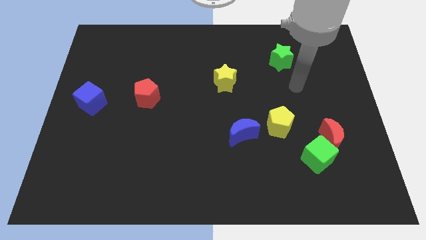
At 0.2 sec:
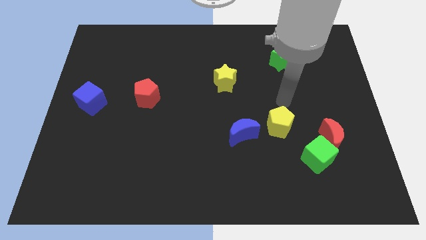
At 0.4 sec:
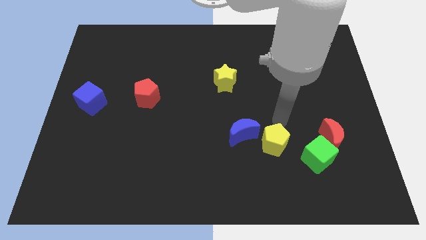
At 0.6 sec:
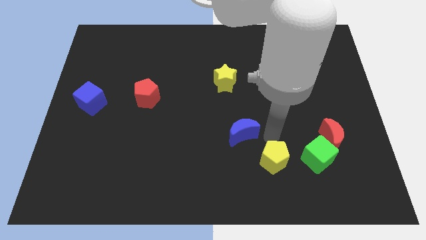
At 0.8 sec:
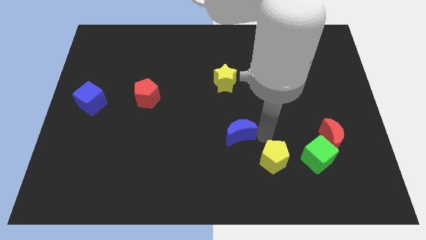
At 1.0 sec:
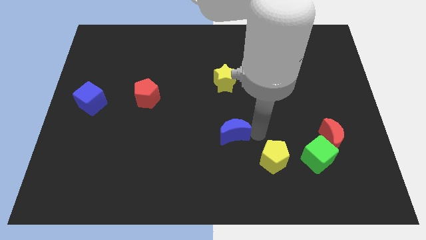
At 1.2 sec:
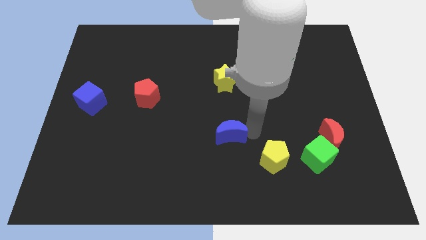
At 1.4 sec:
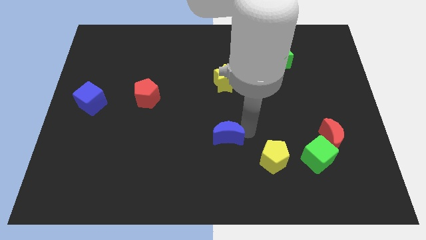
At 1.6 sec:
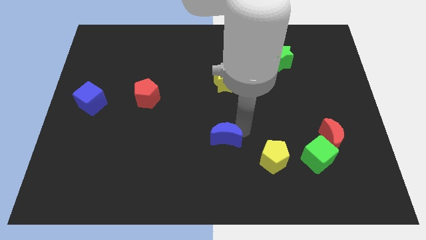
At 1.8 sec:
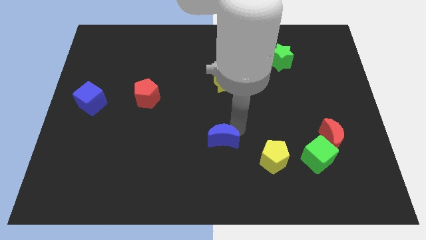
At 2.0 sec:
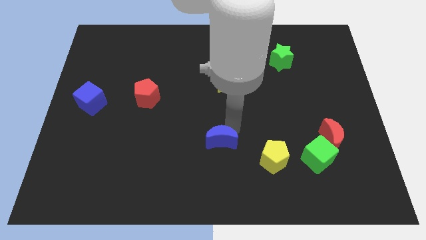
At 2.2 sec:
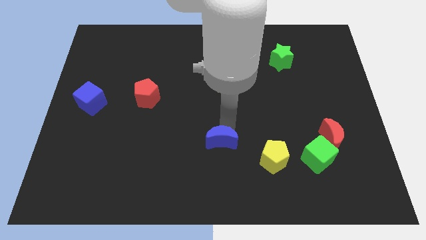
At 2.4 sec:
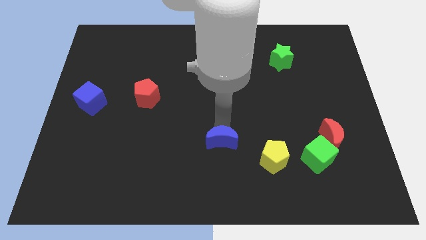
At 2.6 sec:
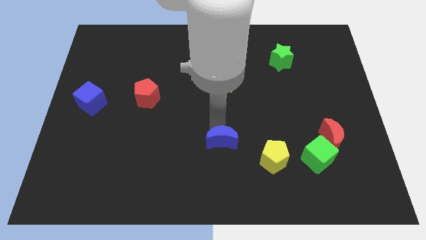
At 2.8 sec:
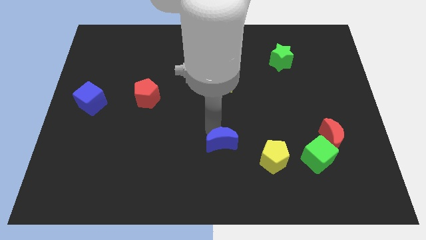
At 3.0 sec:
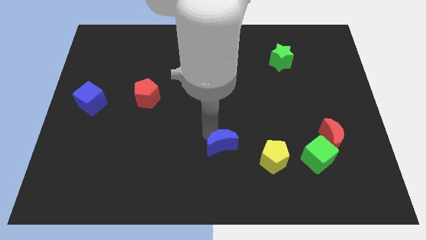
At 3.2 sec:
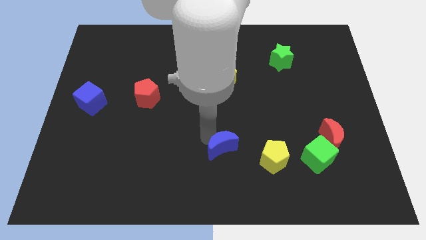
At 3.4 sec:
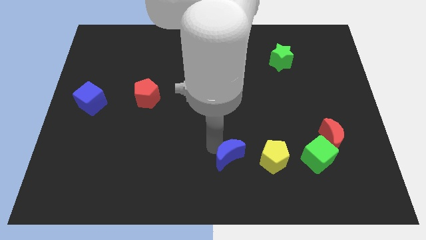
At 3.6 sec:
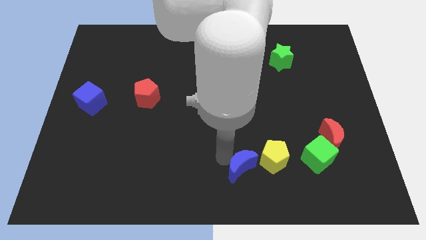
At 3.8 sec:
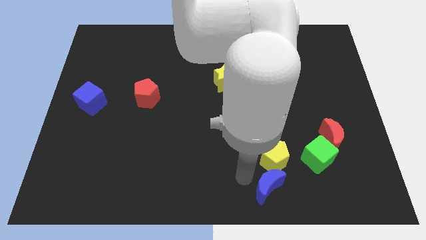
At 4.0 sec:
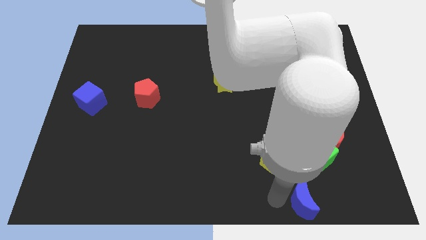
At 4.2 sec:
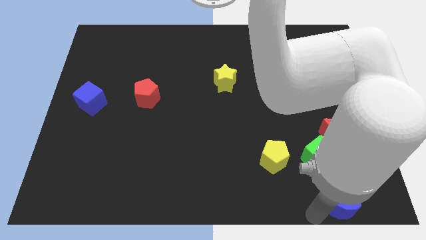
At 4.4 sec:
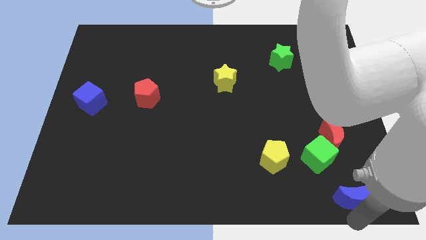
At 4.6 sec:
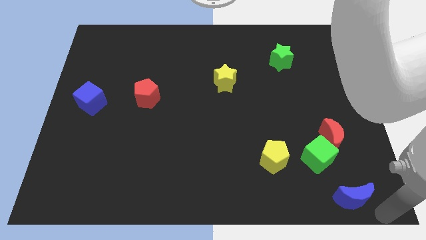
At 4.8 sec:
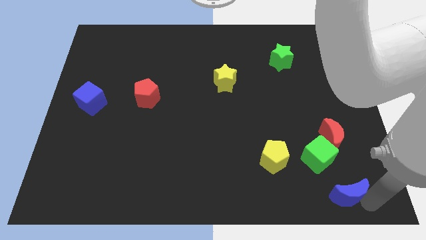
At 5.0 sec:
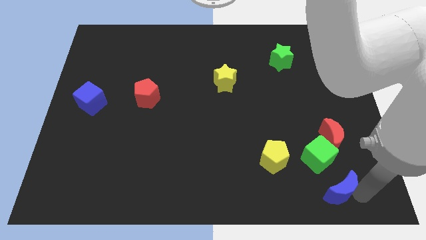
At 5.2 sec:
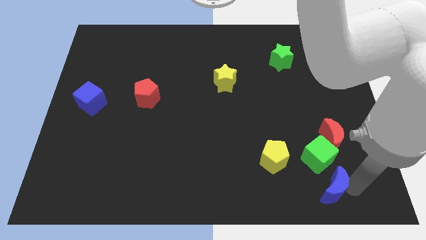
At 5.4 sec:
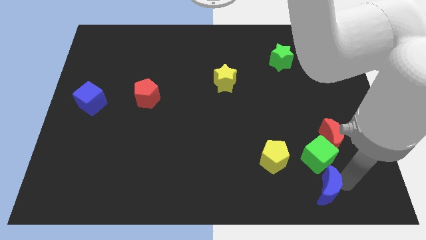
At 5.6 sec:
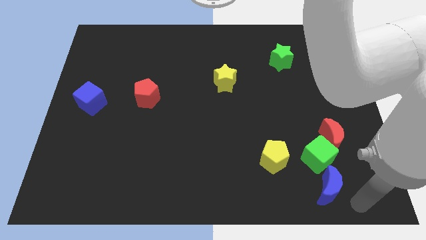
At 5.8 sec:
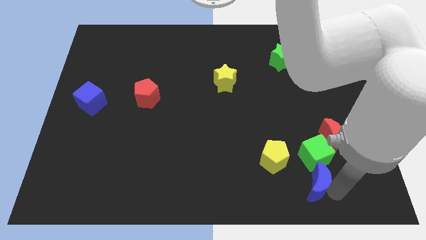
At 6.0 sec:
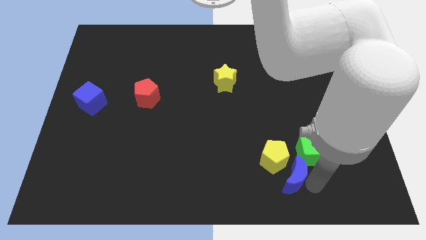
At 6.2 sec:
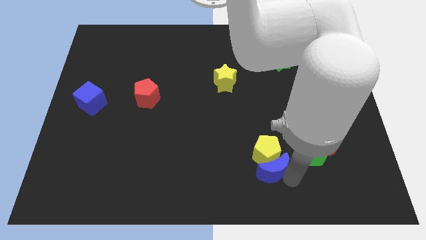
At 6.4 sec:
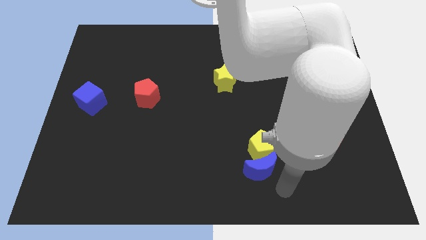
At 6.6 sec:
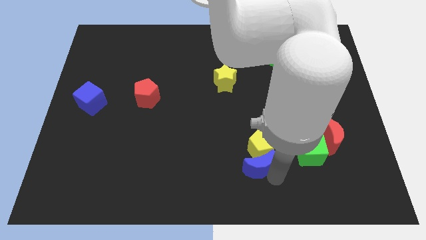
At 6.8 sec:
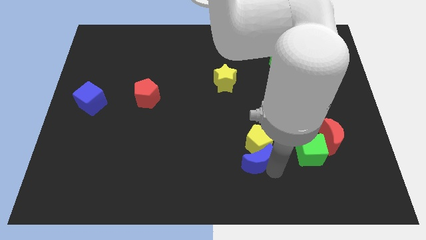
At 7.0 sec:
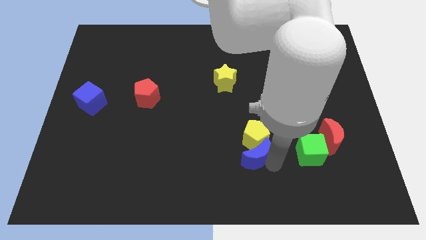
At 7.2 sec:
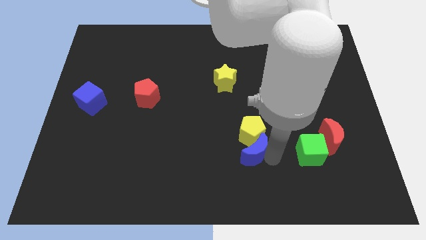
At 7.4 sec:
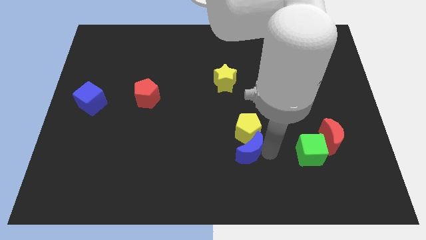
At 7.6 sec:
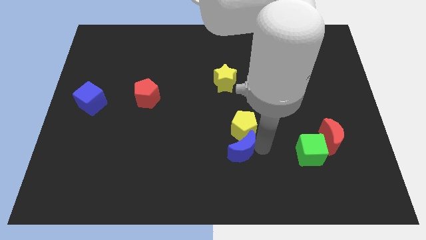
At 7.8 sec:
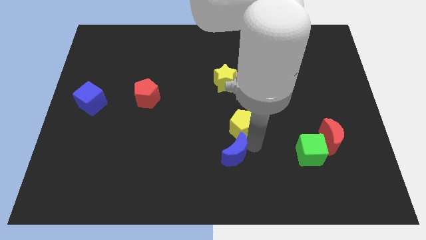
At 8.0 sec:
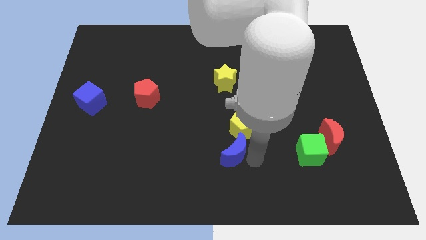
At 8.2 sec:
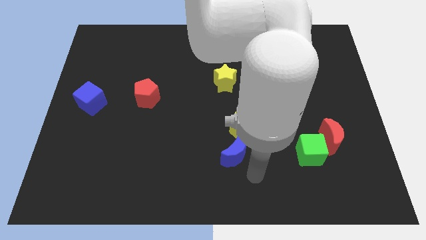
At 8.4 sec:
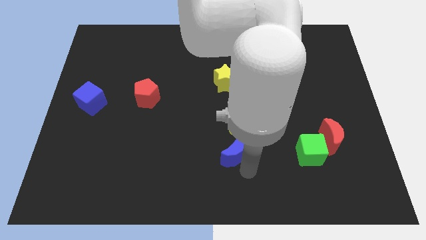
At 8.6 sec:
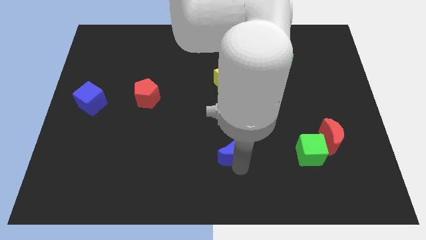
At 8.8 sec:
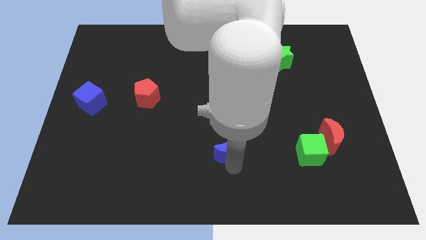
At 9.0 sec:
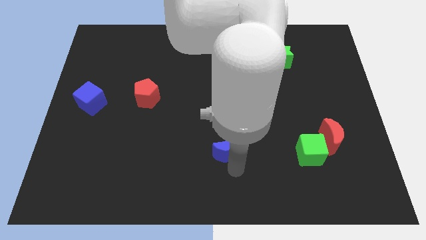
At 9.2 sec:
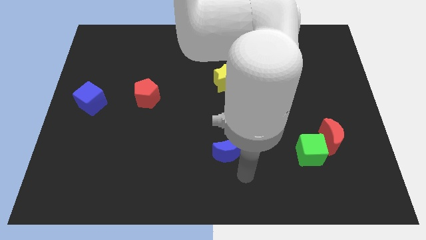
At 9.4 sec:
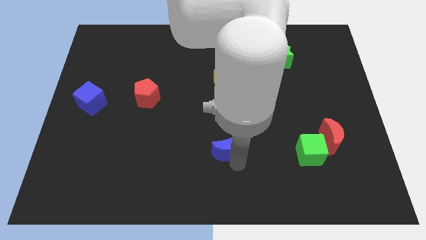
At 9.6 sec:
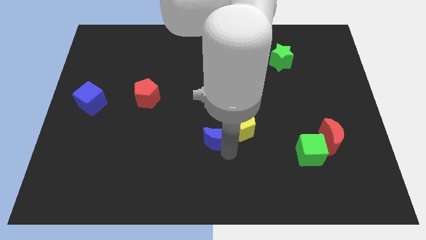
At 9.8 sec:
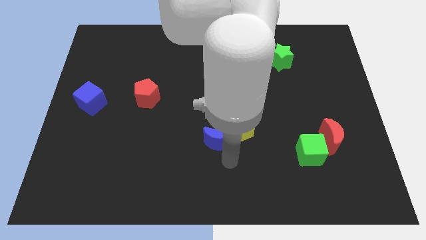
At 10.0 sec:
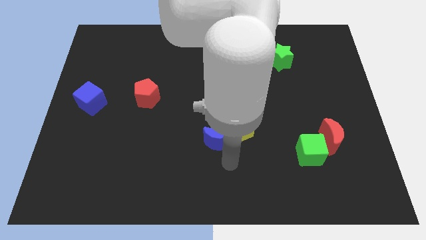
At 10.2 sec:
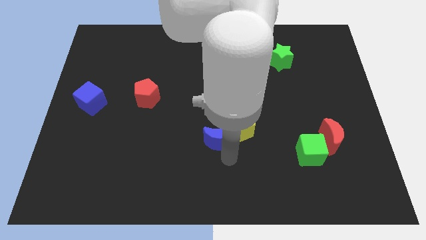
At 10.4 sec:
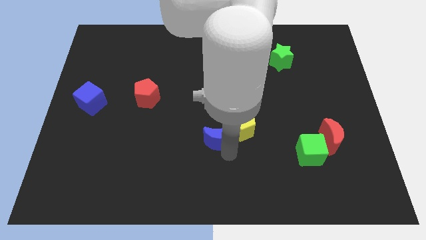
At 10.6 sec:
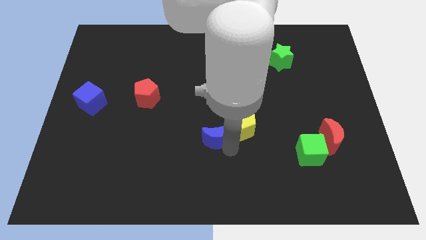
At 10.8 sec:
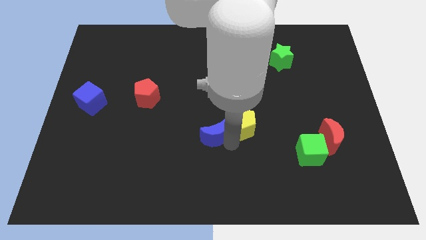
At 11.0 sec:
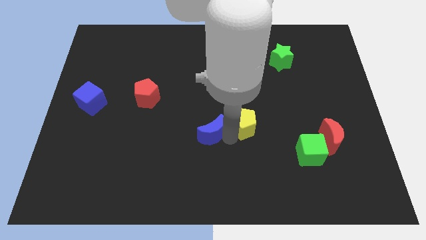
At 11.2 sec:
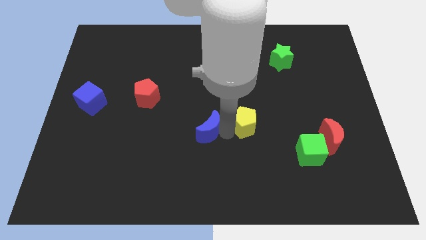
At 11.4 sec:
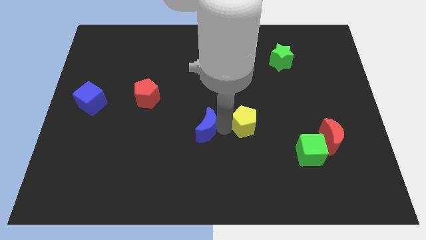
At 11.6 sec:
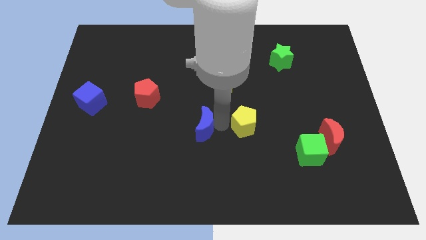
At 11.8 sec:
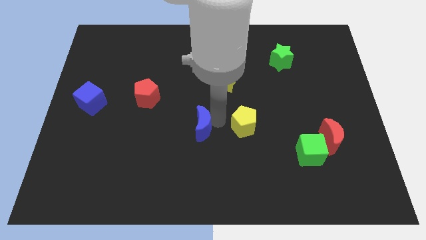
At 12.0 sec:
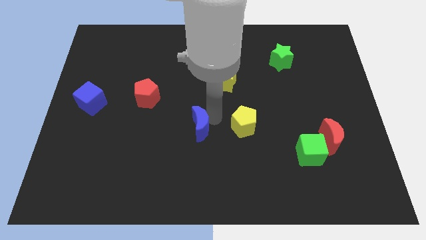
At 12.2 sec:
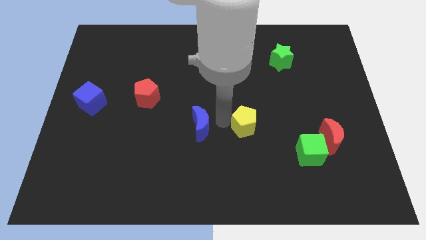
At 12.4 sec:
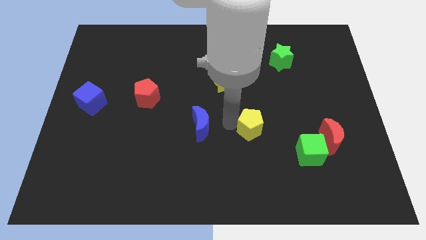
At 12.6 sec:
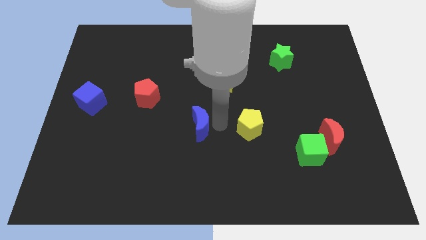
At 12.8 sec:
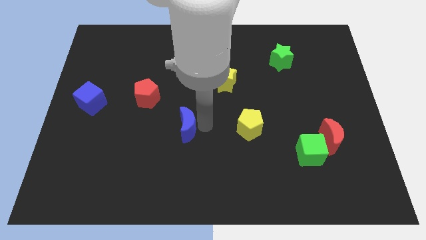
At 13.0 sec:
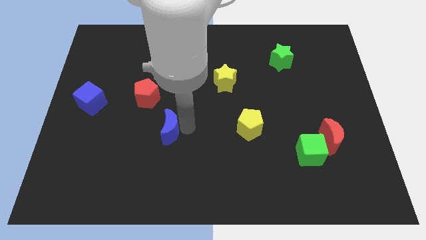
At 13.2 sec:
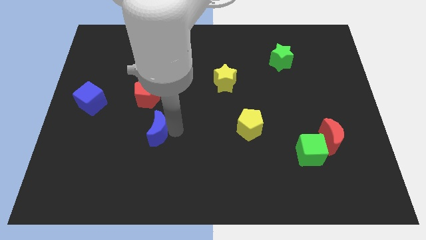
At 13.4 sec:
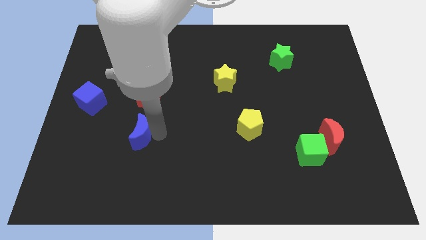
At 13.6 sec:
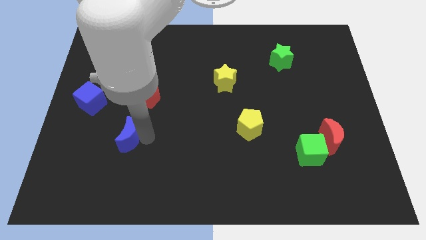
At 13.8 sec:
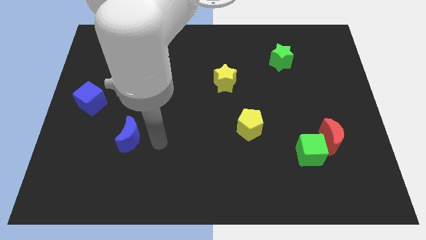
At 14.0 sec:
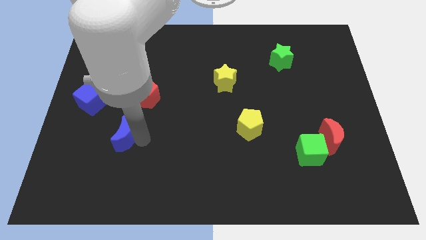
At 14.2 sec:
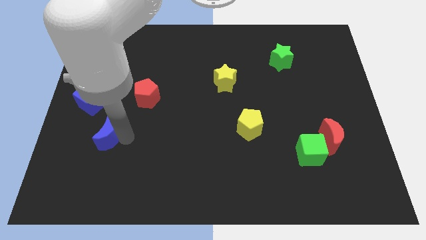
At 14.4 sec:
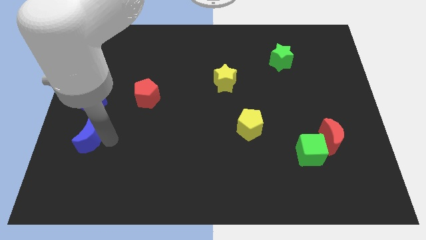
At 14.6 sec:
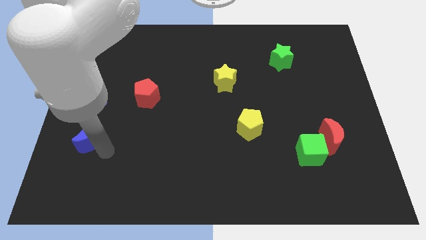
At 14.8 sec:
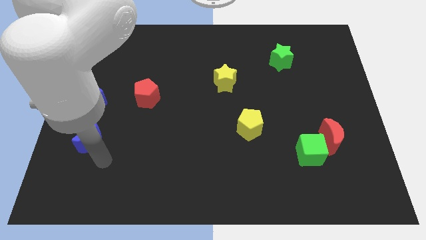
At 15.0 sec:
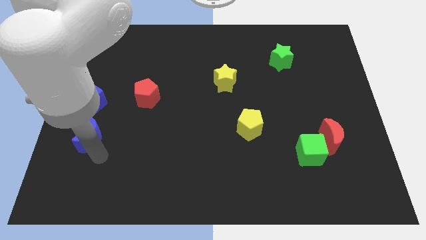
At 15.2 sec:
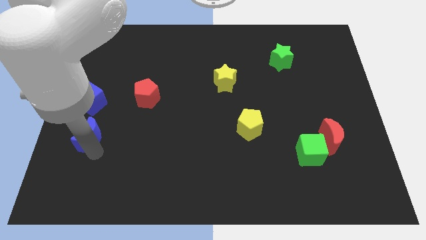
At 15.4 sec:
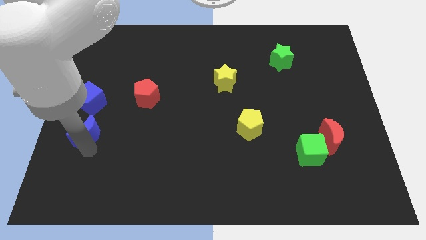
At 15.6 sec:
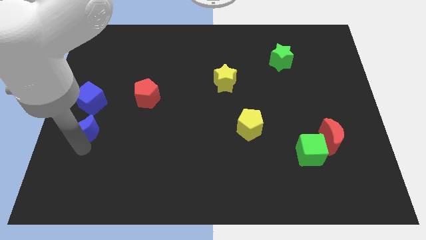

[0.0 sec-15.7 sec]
move the blue moon to the left side of the board
